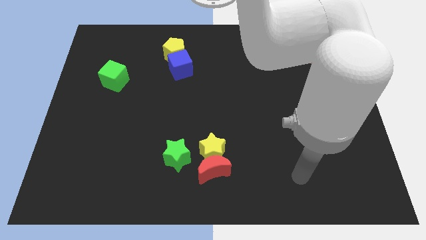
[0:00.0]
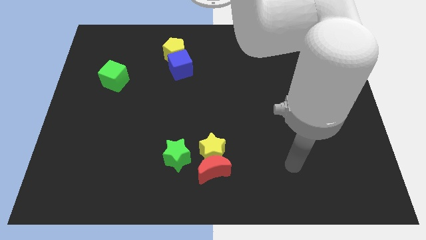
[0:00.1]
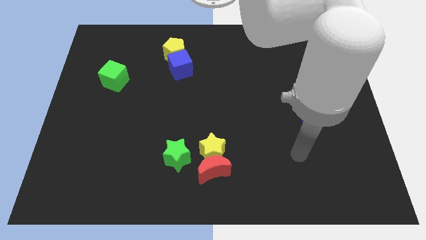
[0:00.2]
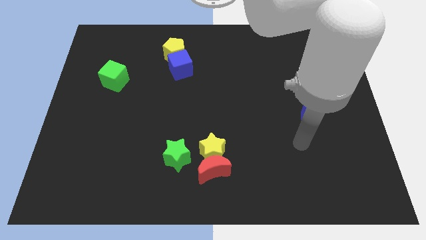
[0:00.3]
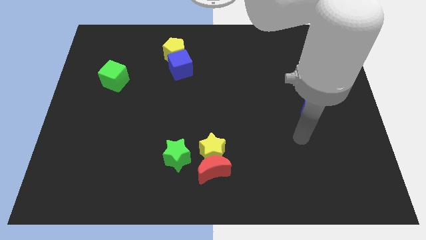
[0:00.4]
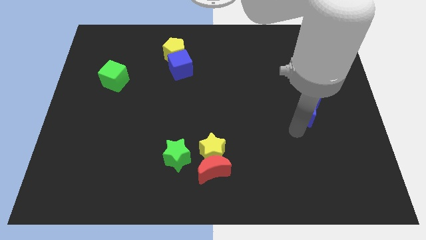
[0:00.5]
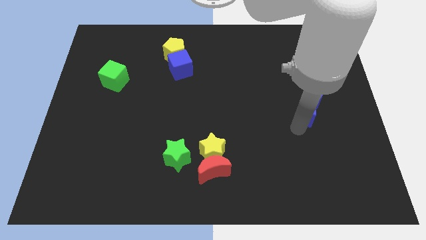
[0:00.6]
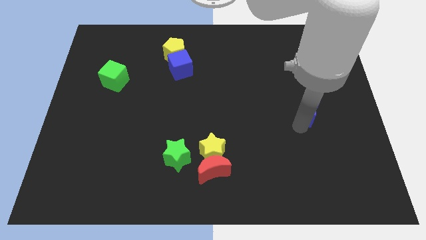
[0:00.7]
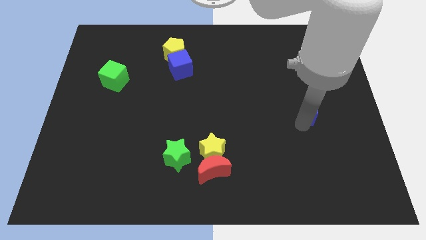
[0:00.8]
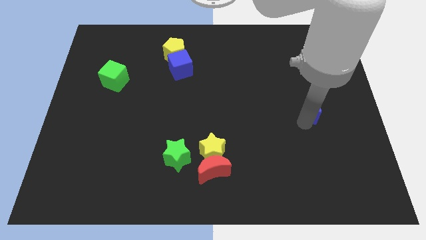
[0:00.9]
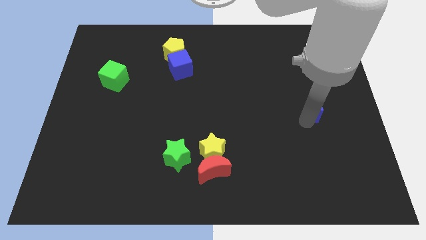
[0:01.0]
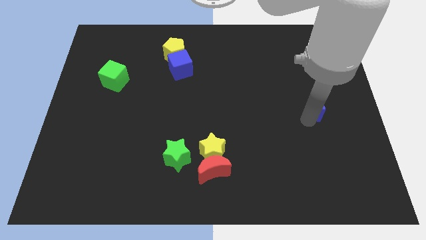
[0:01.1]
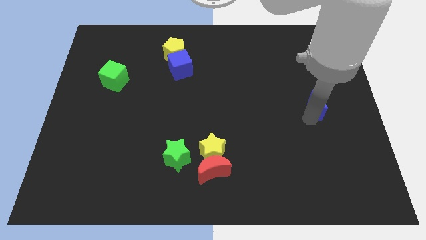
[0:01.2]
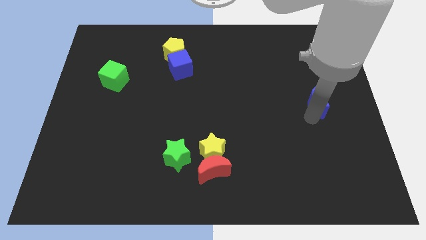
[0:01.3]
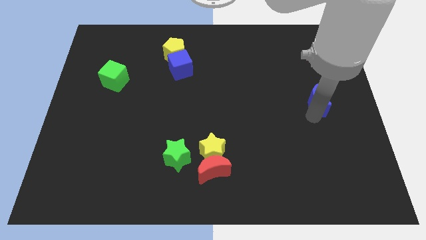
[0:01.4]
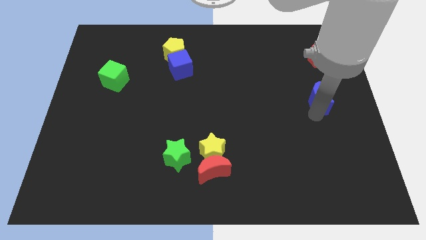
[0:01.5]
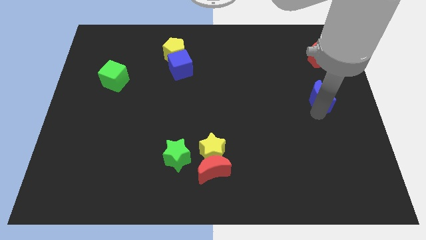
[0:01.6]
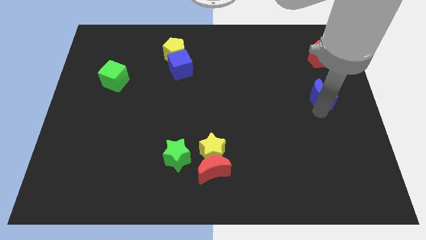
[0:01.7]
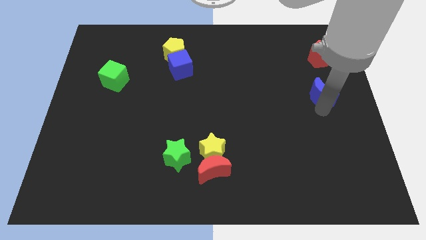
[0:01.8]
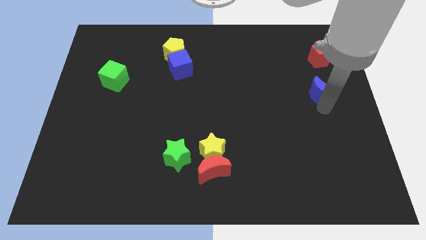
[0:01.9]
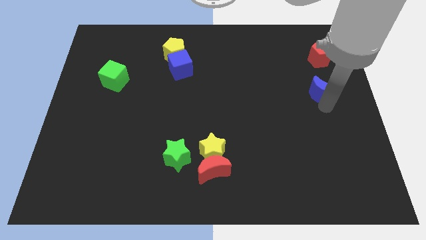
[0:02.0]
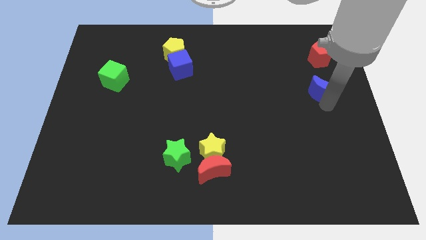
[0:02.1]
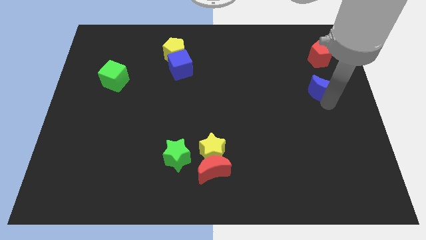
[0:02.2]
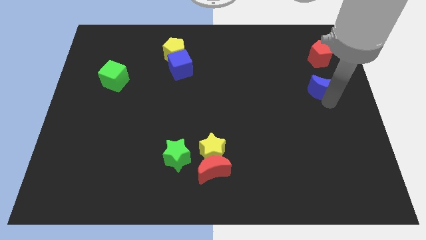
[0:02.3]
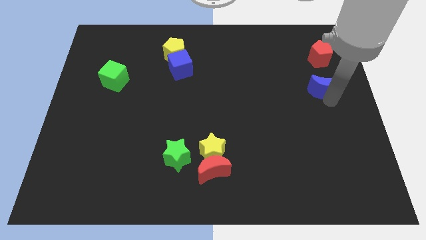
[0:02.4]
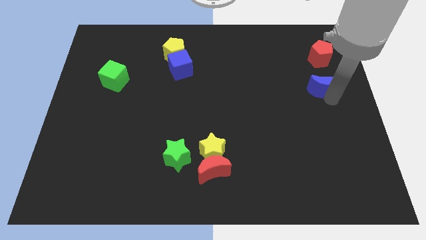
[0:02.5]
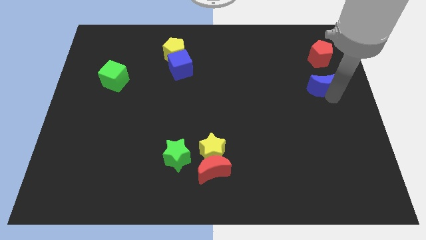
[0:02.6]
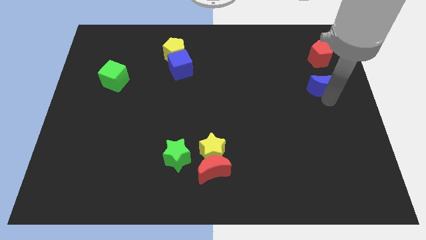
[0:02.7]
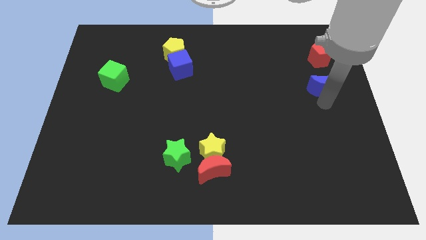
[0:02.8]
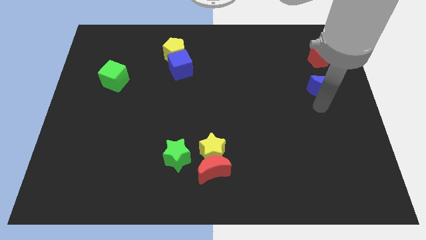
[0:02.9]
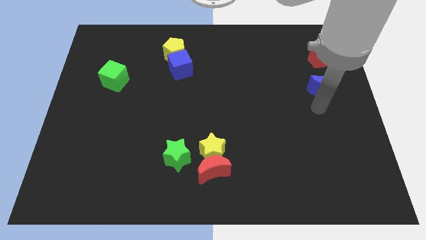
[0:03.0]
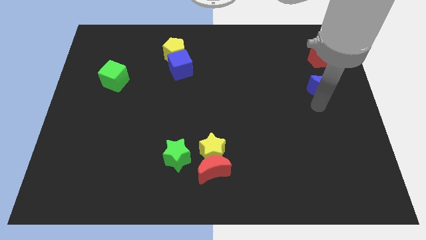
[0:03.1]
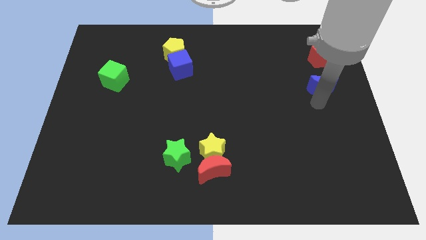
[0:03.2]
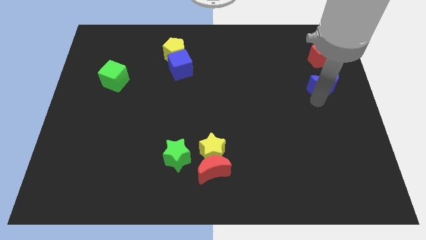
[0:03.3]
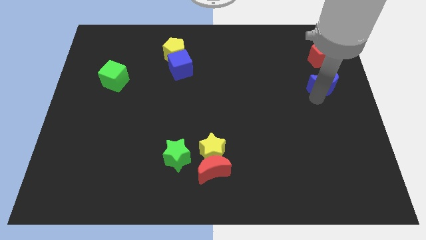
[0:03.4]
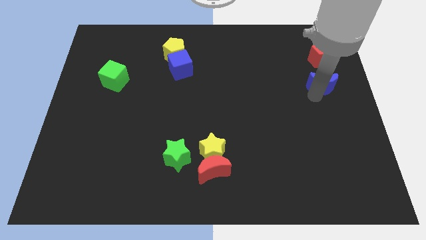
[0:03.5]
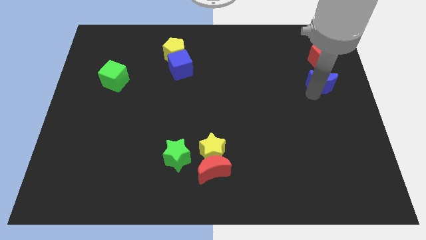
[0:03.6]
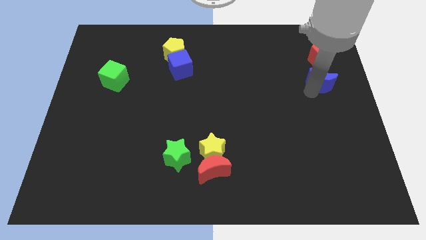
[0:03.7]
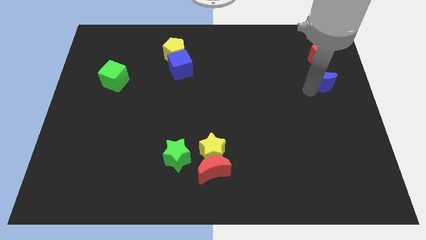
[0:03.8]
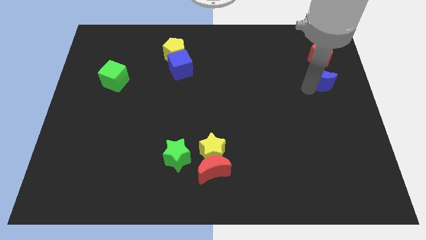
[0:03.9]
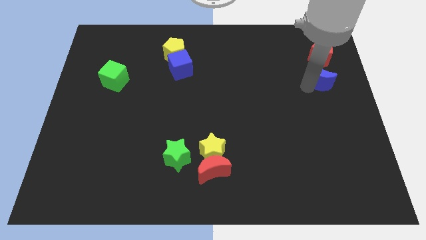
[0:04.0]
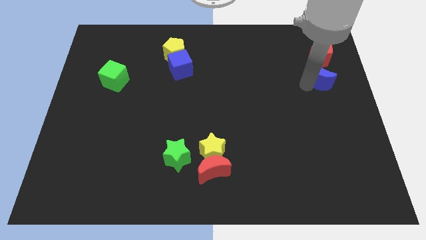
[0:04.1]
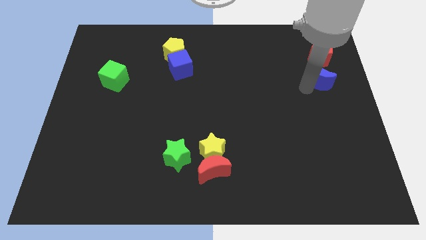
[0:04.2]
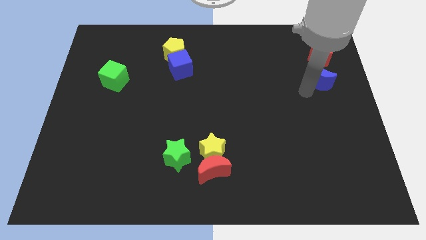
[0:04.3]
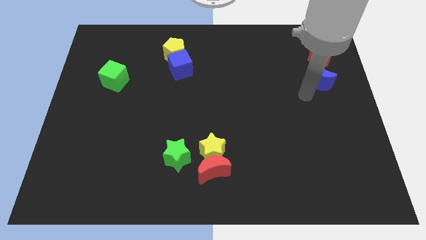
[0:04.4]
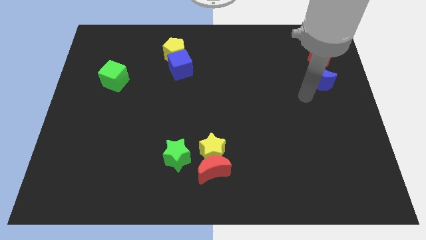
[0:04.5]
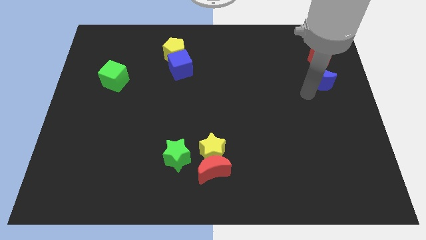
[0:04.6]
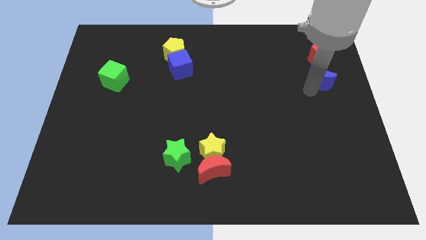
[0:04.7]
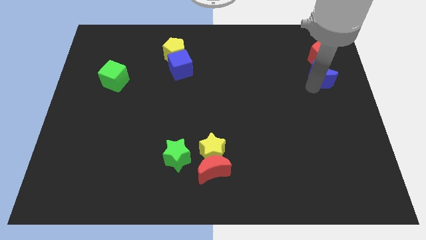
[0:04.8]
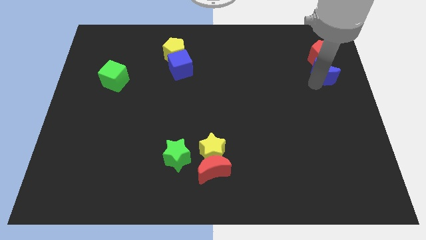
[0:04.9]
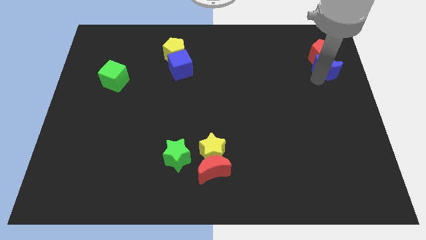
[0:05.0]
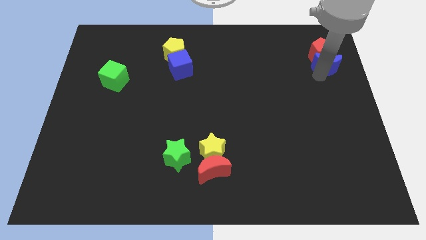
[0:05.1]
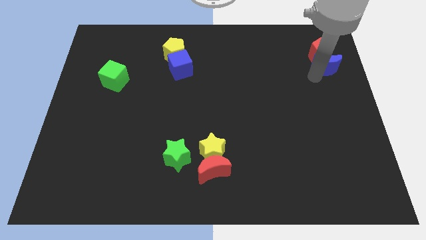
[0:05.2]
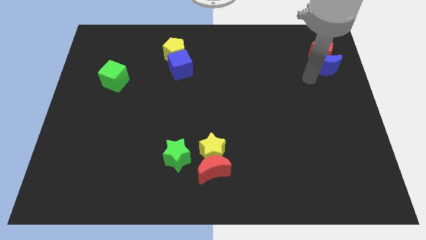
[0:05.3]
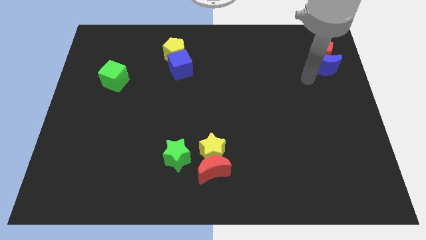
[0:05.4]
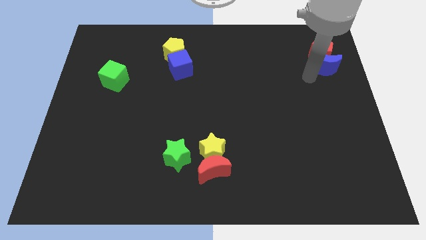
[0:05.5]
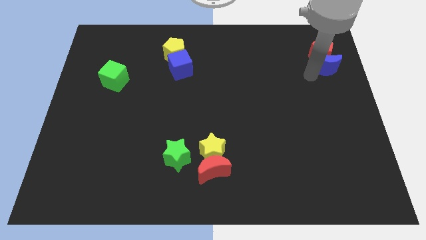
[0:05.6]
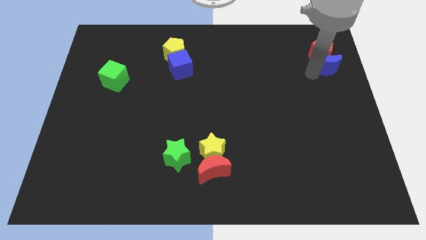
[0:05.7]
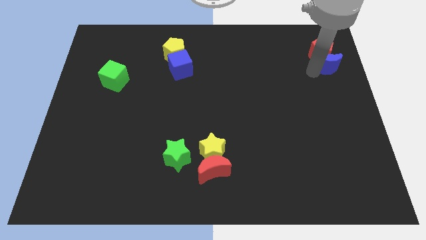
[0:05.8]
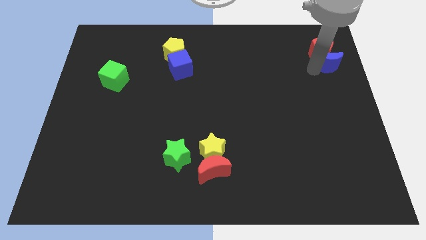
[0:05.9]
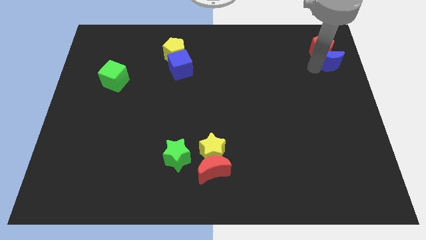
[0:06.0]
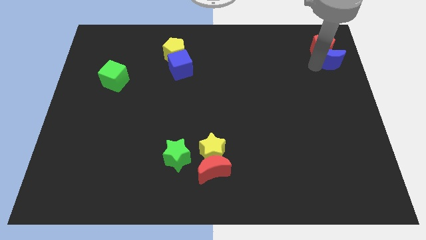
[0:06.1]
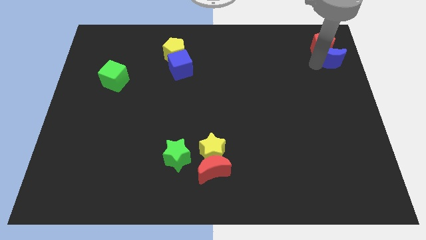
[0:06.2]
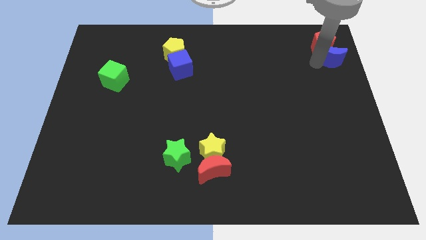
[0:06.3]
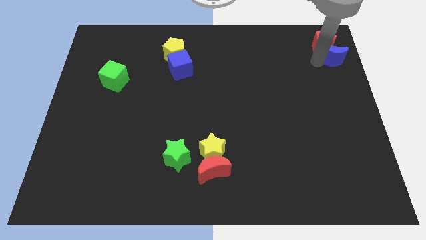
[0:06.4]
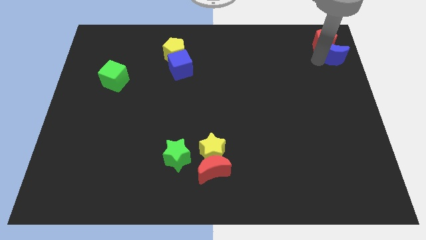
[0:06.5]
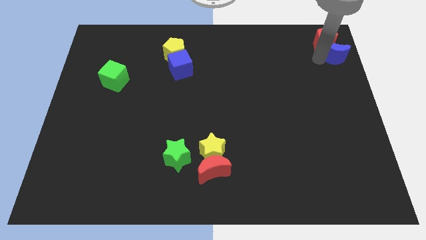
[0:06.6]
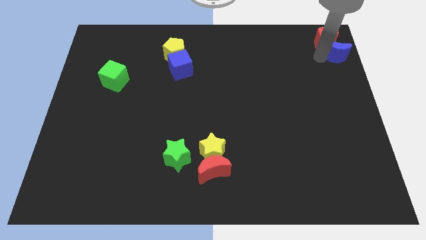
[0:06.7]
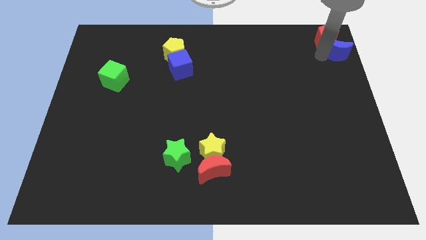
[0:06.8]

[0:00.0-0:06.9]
push the blue moon to the top right corner
